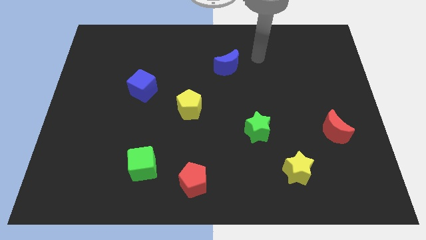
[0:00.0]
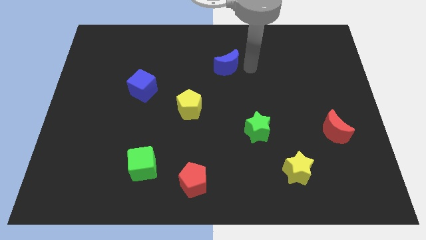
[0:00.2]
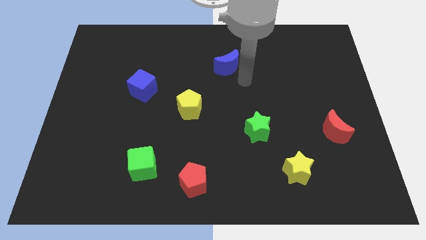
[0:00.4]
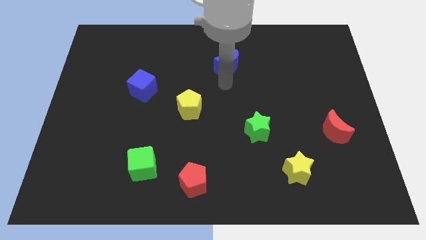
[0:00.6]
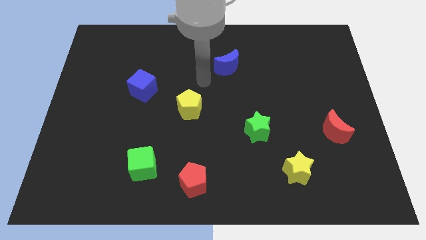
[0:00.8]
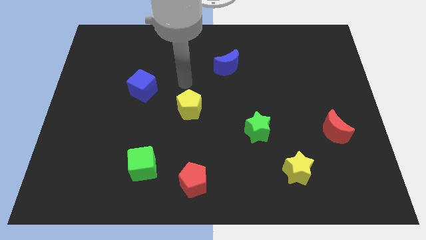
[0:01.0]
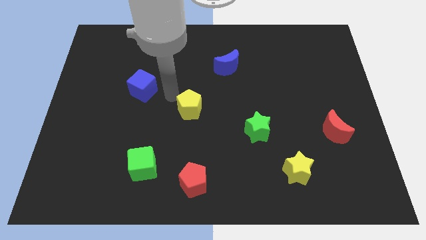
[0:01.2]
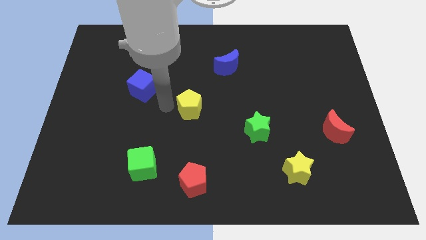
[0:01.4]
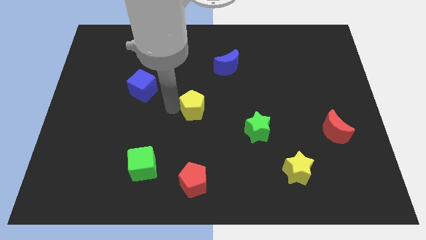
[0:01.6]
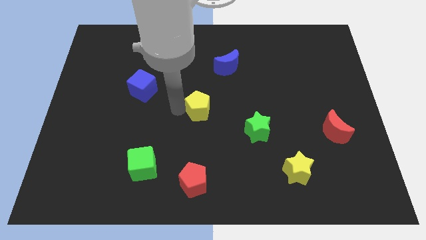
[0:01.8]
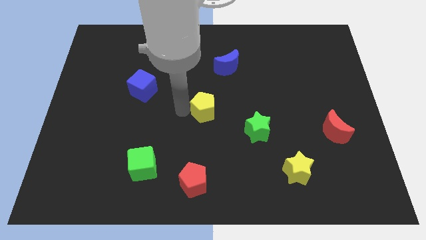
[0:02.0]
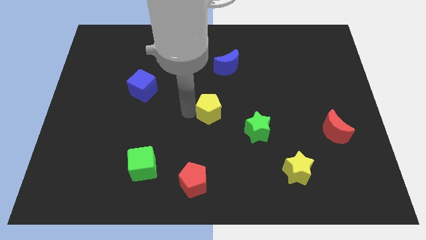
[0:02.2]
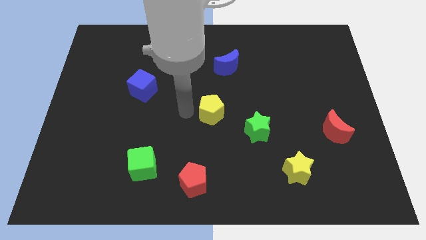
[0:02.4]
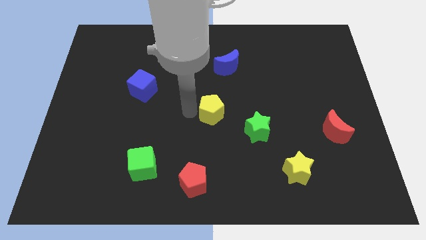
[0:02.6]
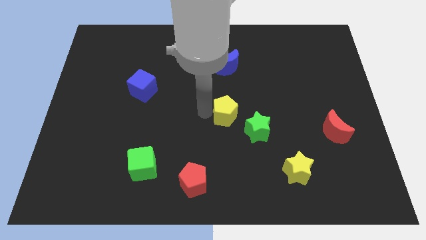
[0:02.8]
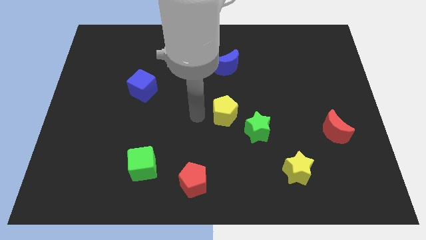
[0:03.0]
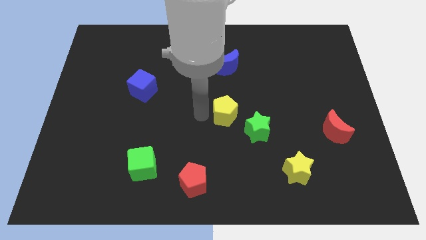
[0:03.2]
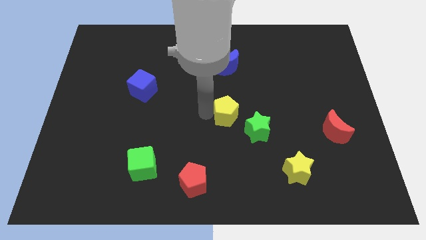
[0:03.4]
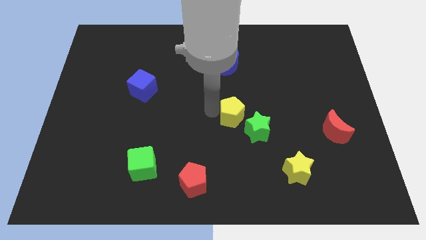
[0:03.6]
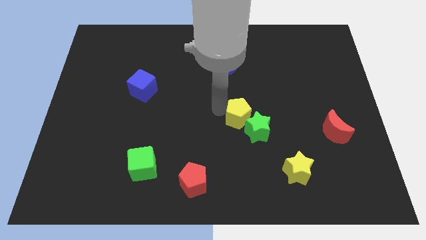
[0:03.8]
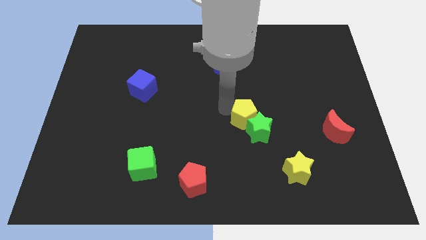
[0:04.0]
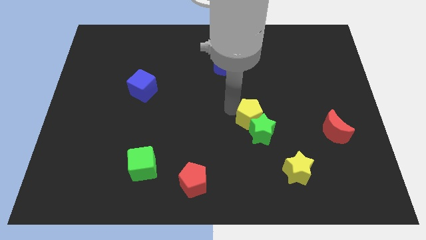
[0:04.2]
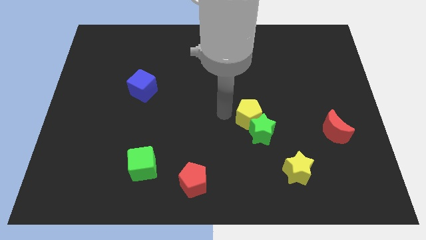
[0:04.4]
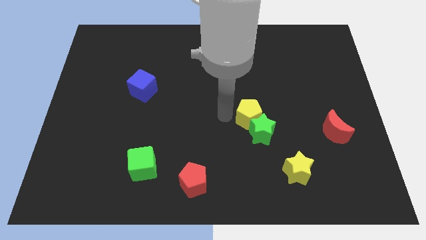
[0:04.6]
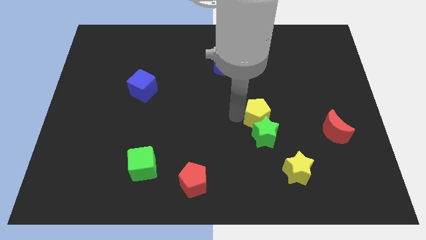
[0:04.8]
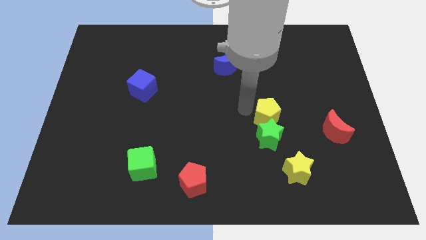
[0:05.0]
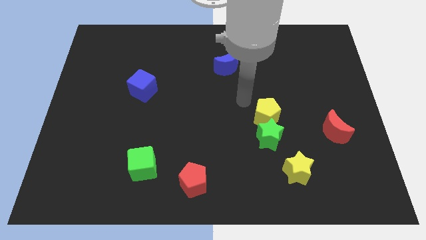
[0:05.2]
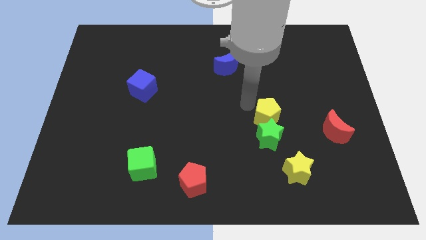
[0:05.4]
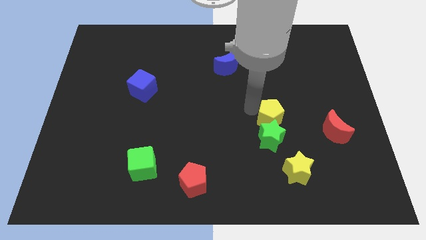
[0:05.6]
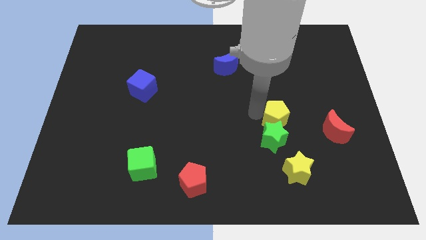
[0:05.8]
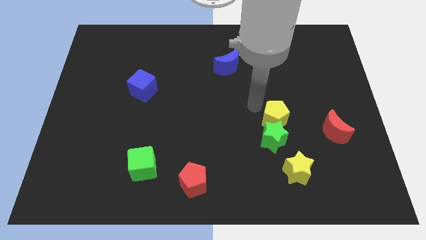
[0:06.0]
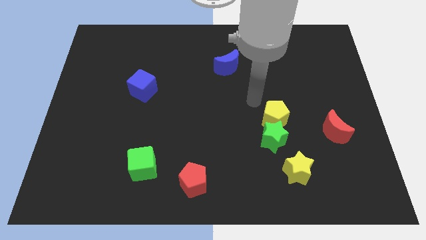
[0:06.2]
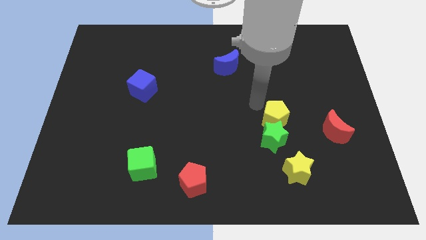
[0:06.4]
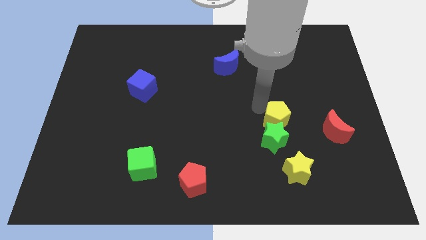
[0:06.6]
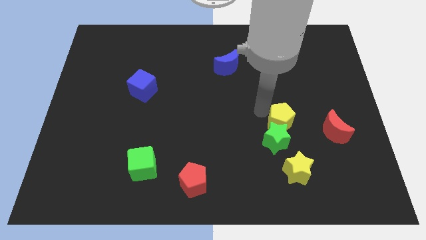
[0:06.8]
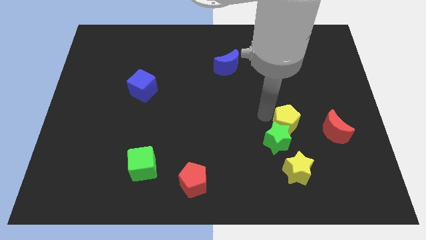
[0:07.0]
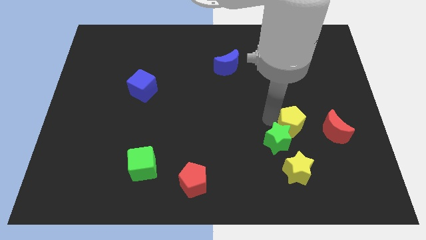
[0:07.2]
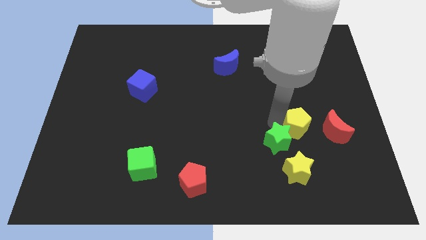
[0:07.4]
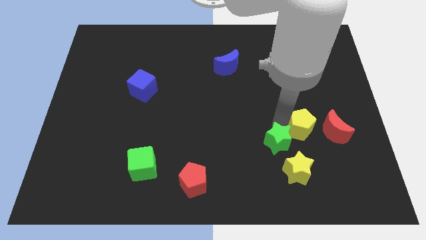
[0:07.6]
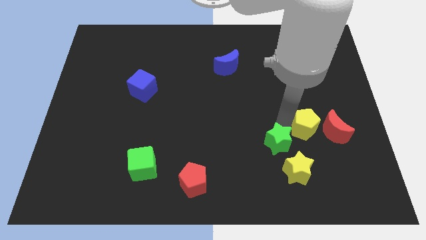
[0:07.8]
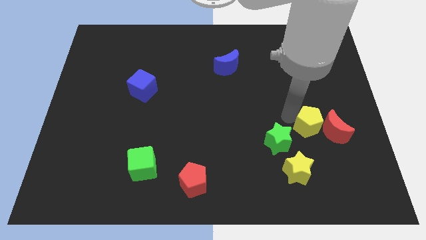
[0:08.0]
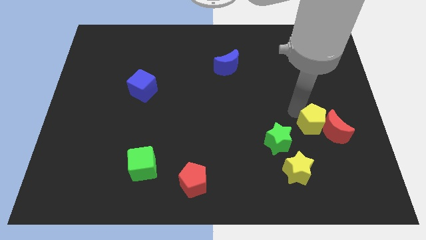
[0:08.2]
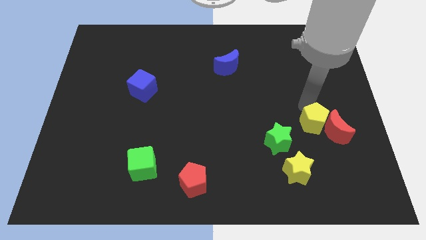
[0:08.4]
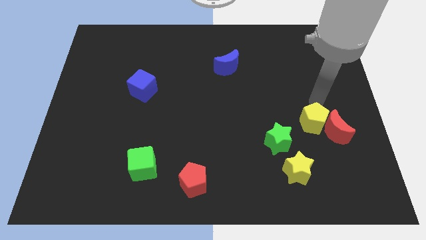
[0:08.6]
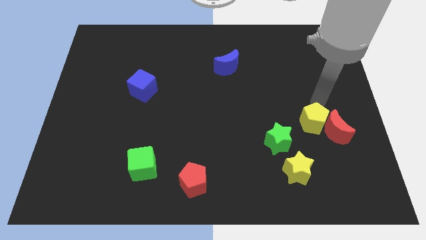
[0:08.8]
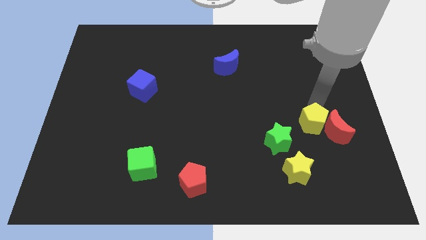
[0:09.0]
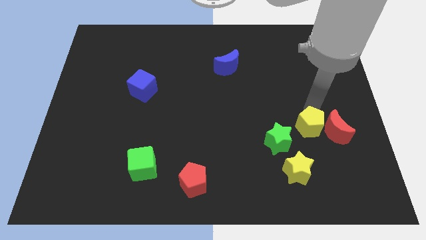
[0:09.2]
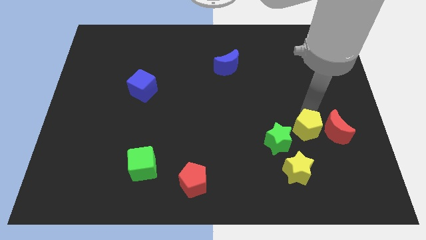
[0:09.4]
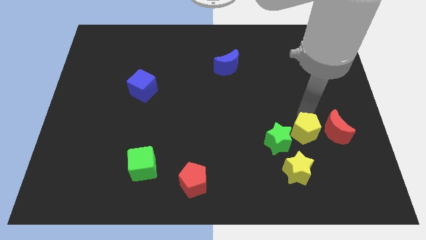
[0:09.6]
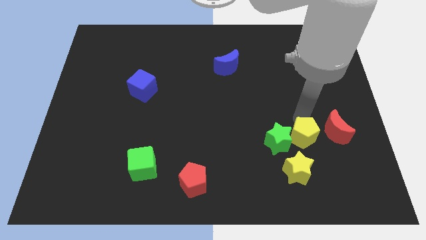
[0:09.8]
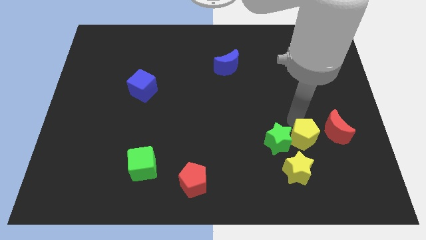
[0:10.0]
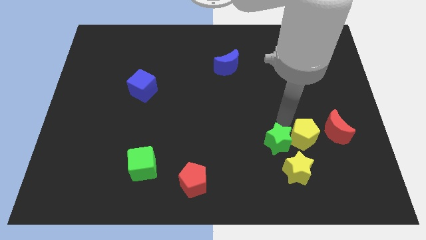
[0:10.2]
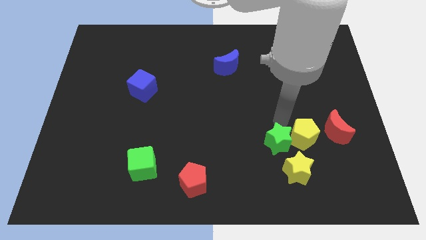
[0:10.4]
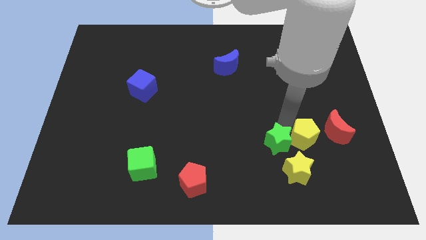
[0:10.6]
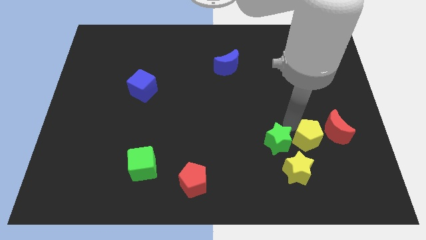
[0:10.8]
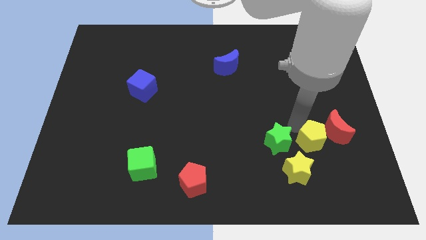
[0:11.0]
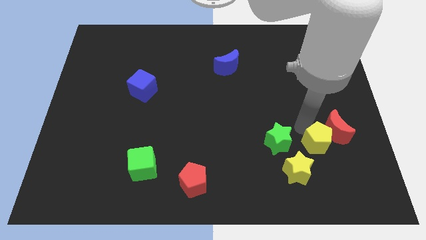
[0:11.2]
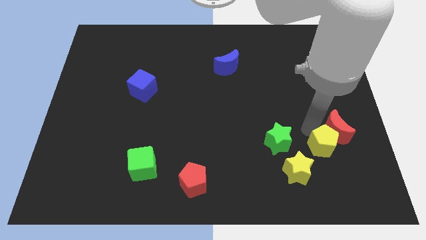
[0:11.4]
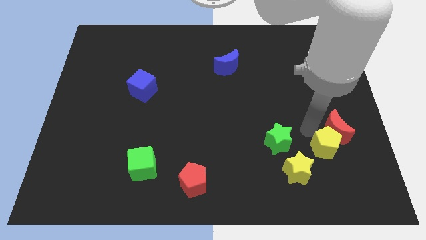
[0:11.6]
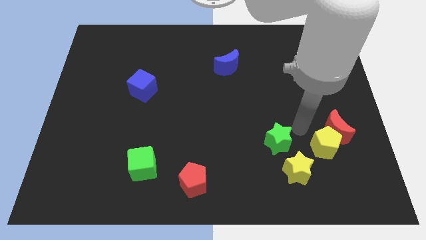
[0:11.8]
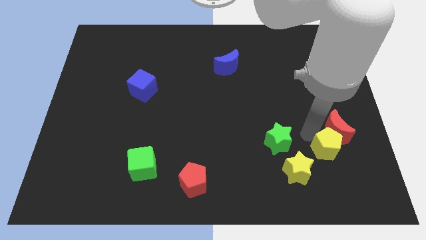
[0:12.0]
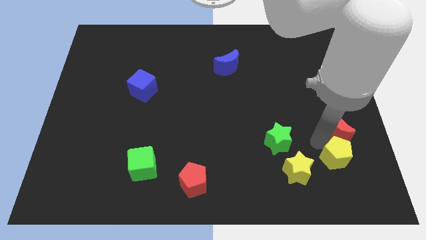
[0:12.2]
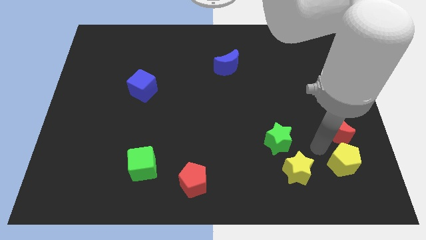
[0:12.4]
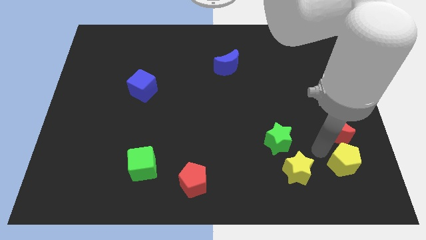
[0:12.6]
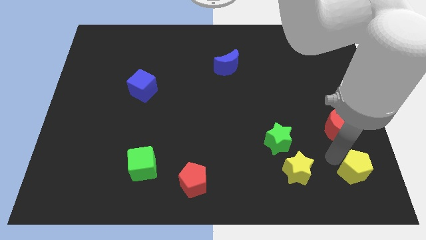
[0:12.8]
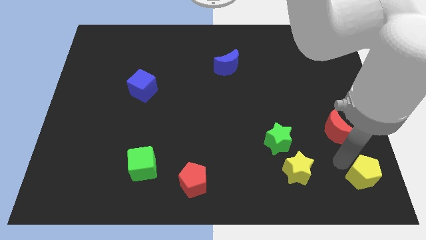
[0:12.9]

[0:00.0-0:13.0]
move the yellow pentagon to the lower right corner
